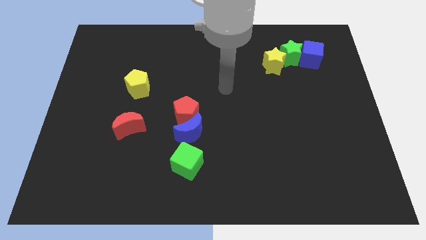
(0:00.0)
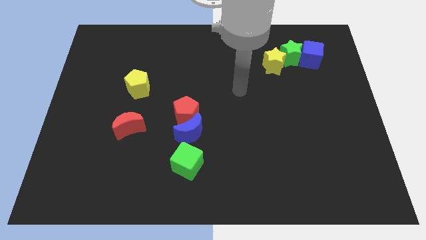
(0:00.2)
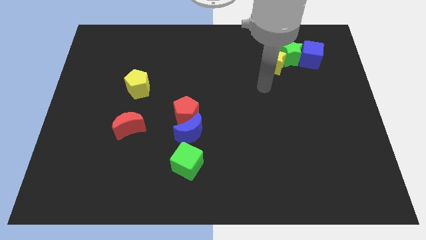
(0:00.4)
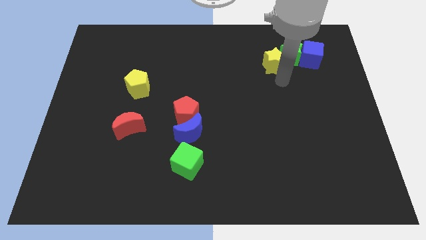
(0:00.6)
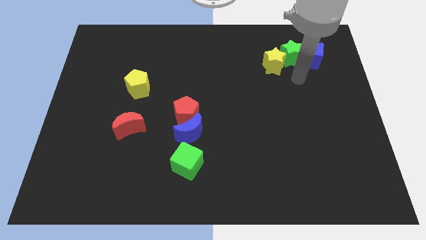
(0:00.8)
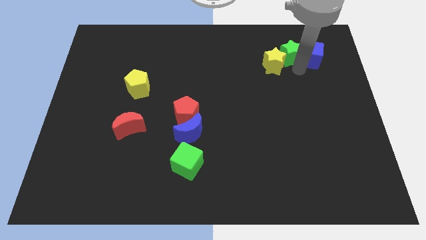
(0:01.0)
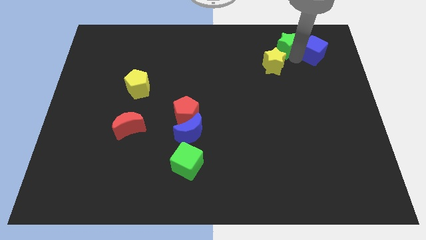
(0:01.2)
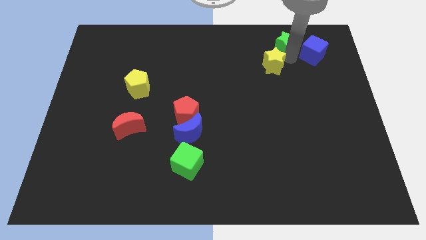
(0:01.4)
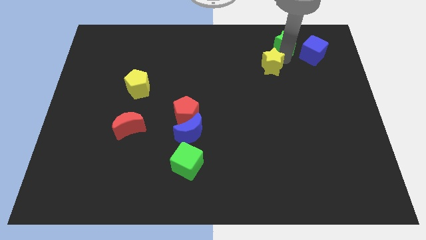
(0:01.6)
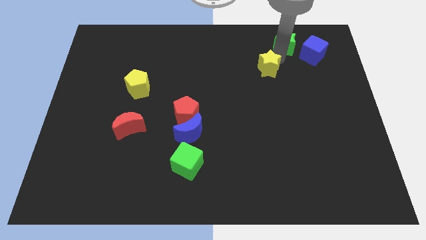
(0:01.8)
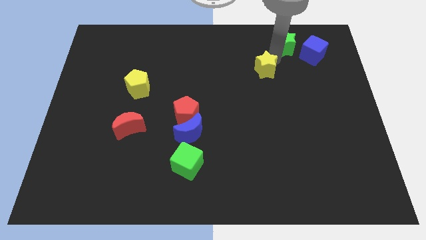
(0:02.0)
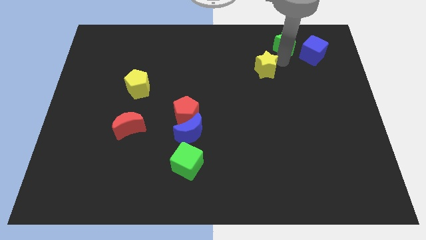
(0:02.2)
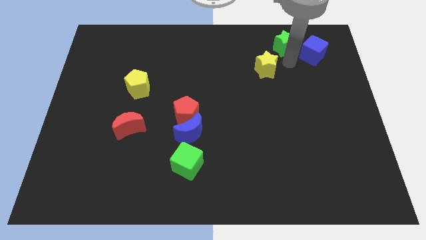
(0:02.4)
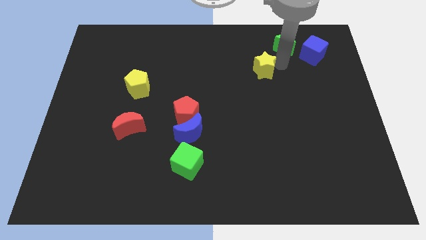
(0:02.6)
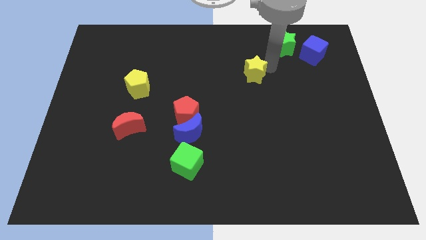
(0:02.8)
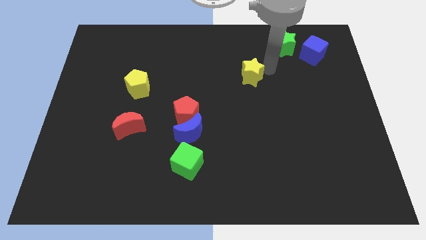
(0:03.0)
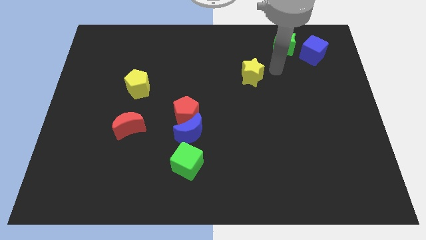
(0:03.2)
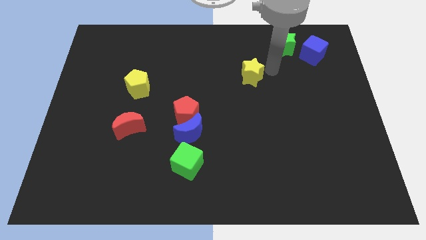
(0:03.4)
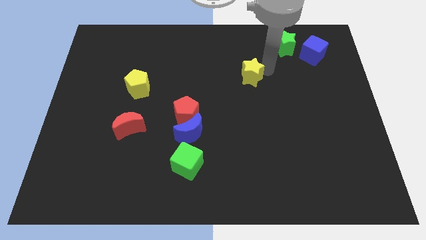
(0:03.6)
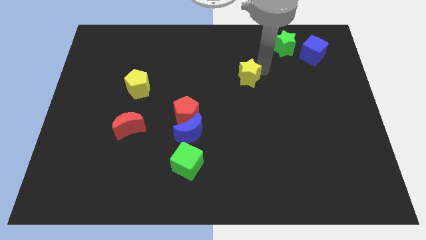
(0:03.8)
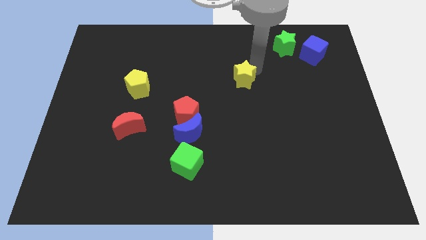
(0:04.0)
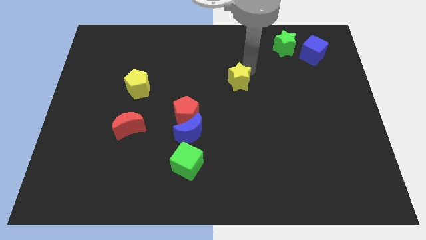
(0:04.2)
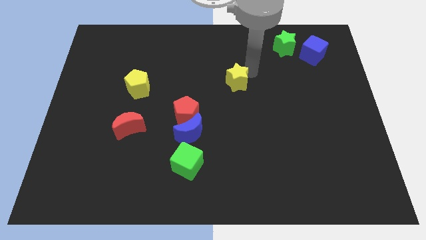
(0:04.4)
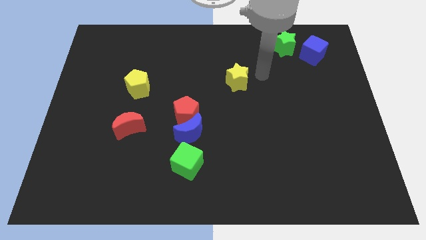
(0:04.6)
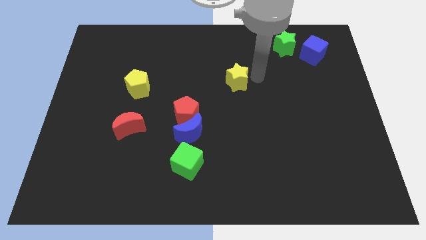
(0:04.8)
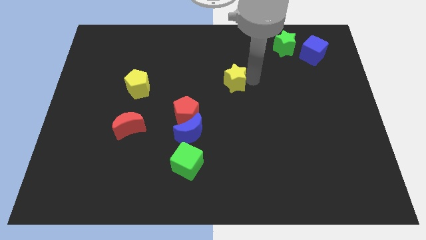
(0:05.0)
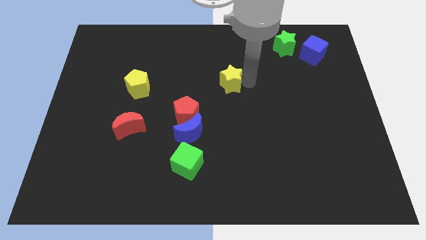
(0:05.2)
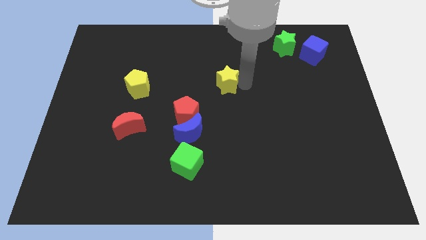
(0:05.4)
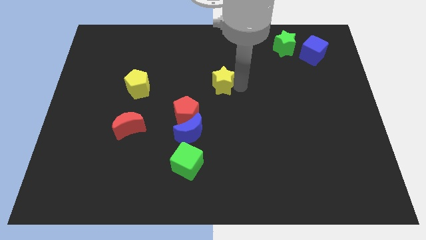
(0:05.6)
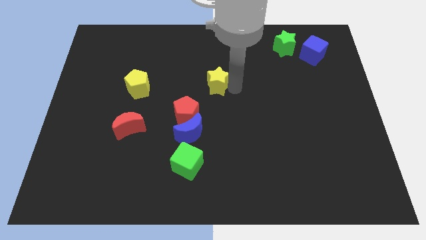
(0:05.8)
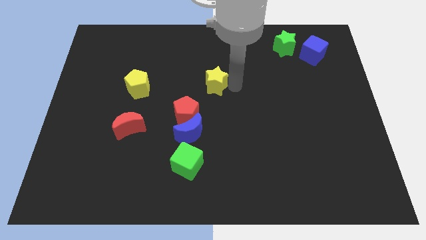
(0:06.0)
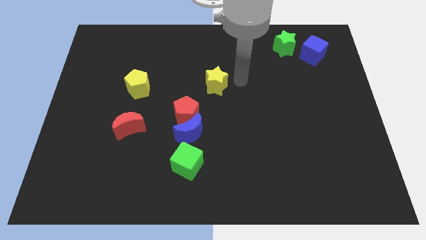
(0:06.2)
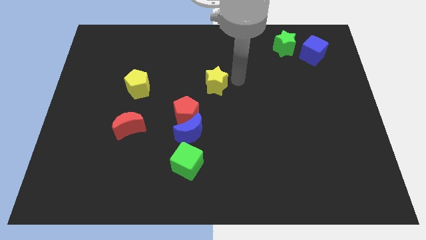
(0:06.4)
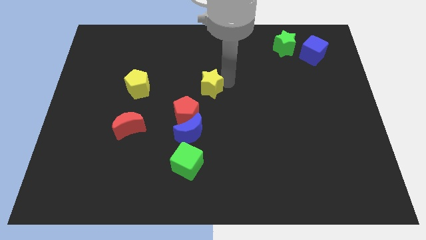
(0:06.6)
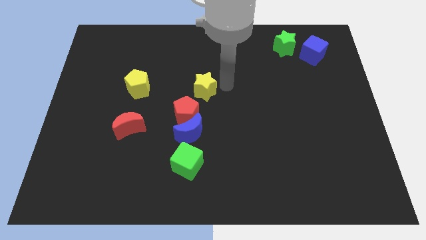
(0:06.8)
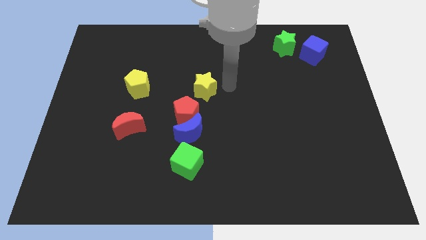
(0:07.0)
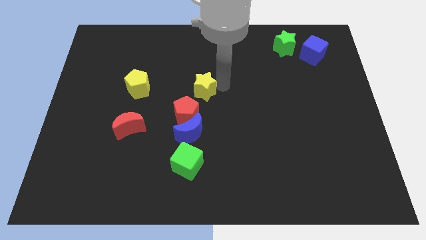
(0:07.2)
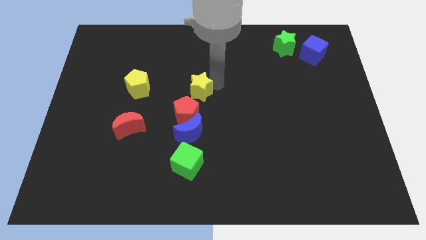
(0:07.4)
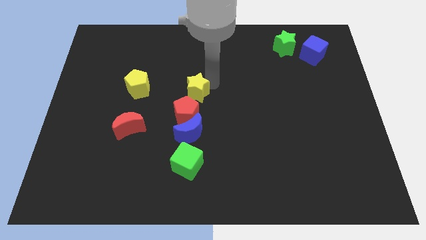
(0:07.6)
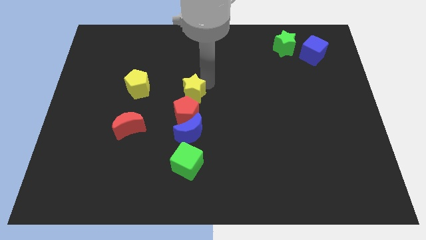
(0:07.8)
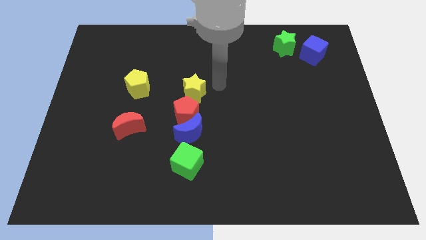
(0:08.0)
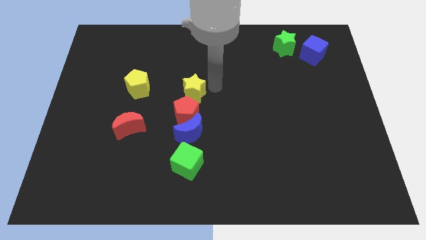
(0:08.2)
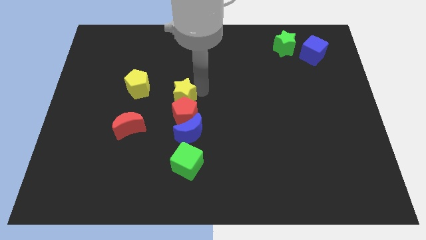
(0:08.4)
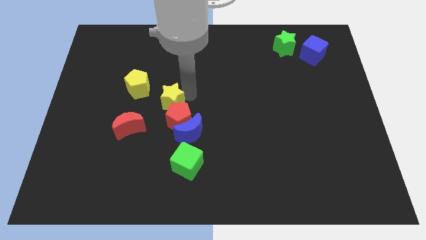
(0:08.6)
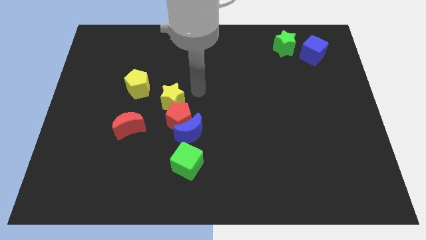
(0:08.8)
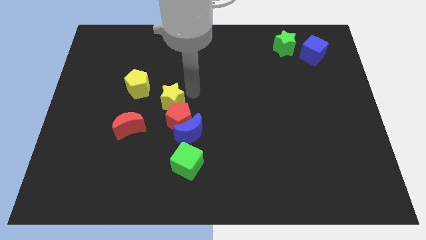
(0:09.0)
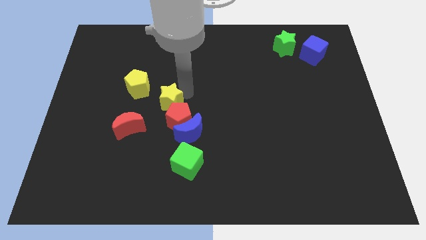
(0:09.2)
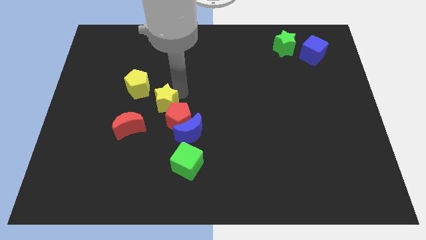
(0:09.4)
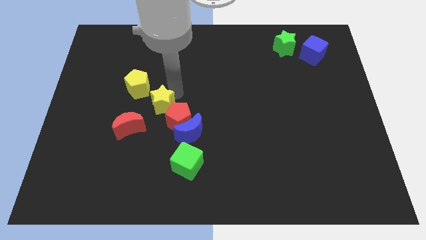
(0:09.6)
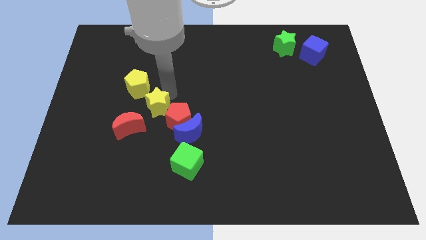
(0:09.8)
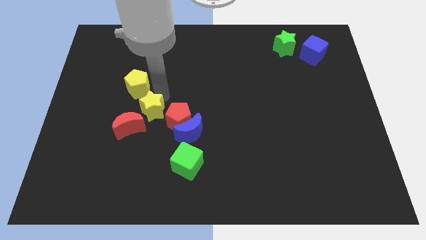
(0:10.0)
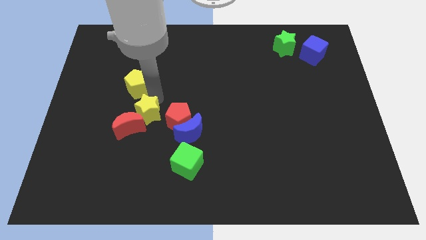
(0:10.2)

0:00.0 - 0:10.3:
put the yellow star towards the red moon

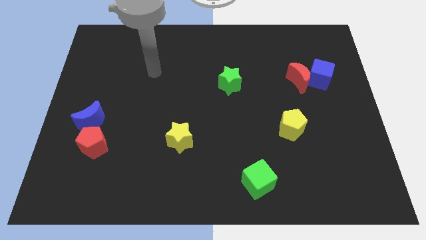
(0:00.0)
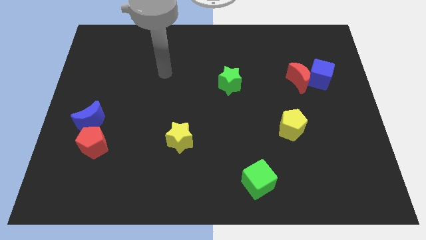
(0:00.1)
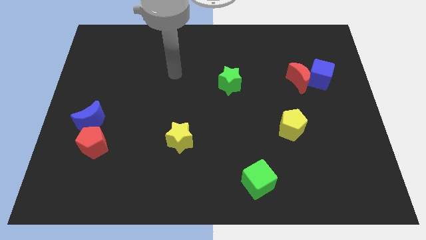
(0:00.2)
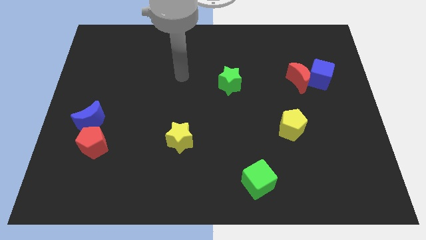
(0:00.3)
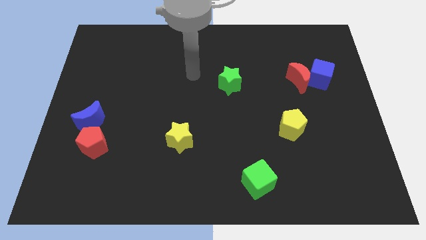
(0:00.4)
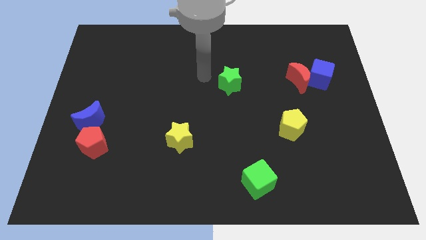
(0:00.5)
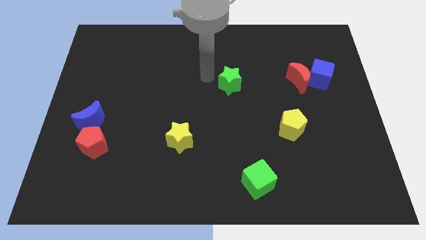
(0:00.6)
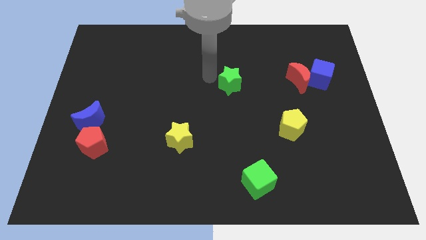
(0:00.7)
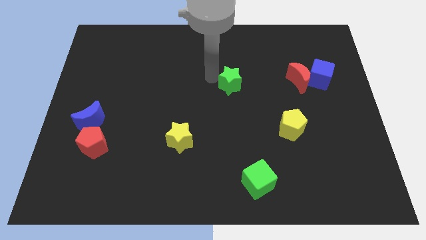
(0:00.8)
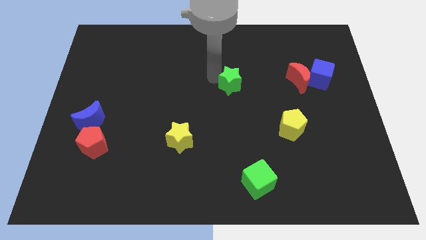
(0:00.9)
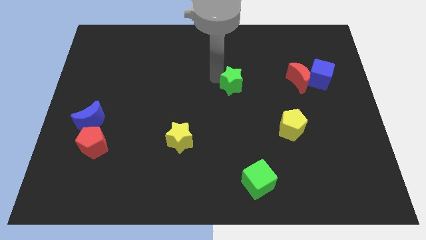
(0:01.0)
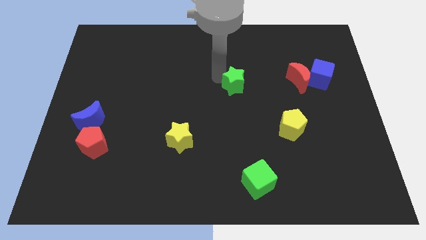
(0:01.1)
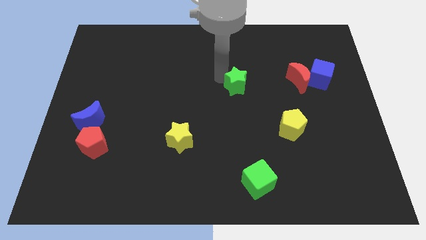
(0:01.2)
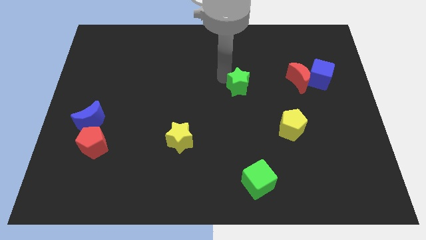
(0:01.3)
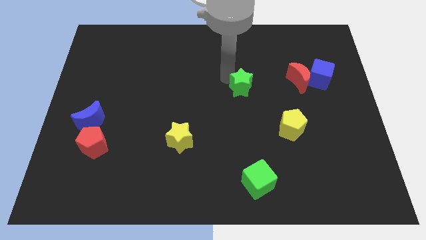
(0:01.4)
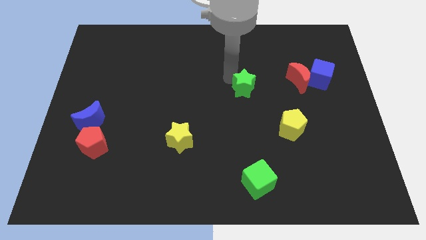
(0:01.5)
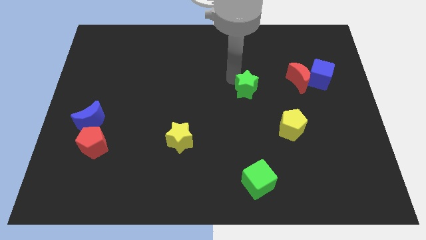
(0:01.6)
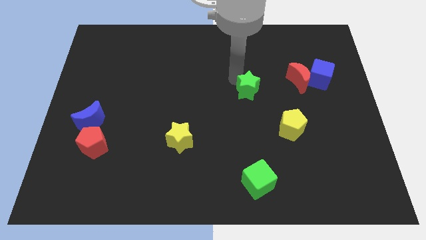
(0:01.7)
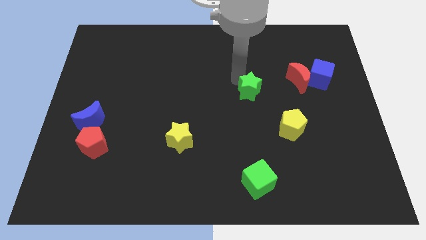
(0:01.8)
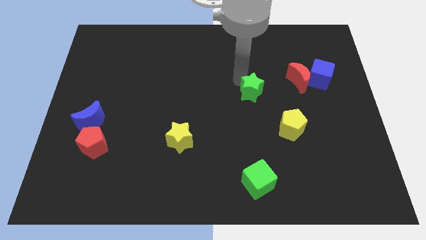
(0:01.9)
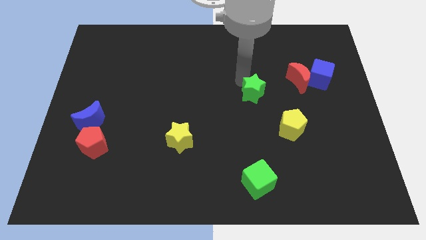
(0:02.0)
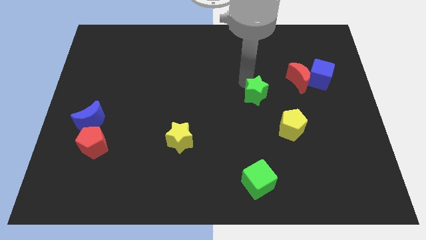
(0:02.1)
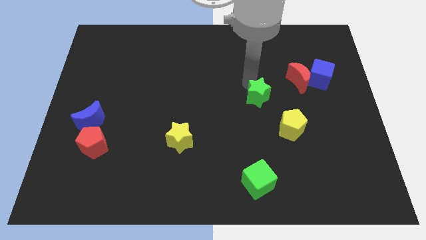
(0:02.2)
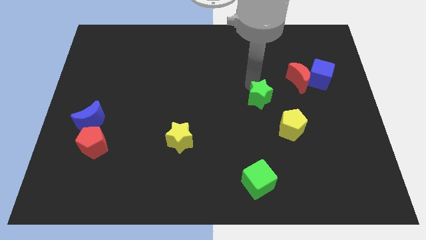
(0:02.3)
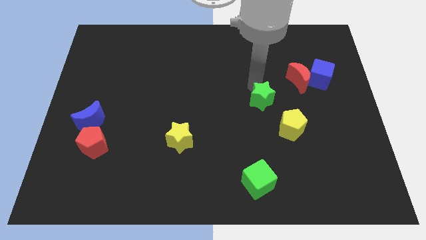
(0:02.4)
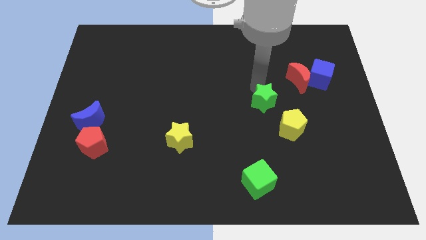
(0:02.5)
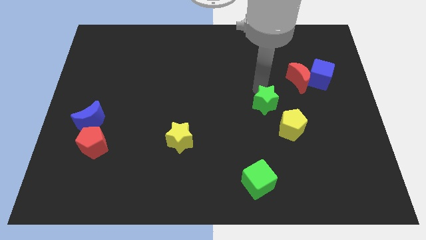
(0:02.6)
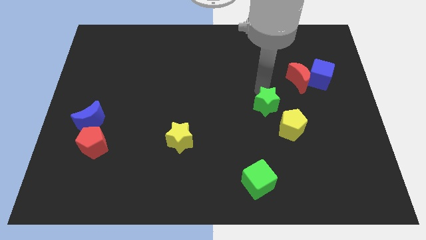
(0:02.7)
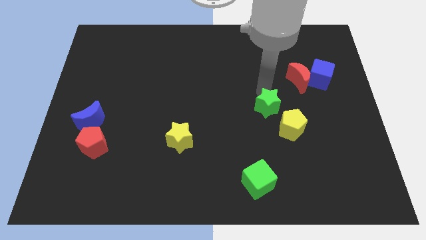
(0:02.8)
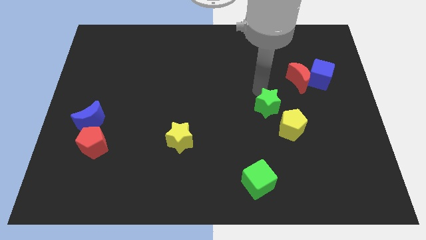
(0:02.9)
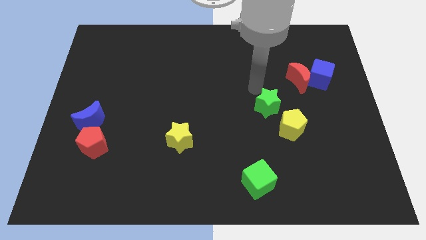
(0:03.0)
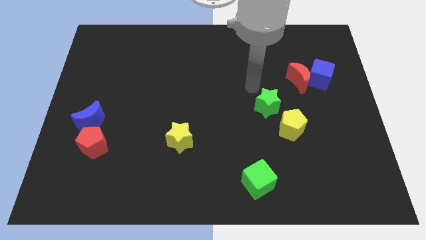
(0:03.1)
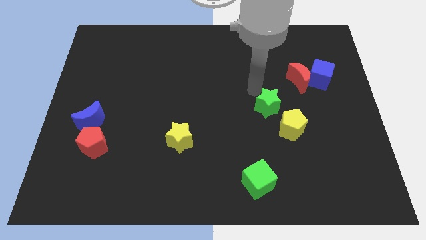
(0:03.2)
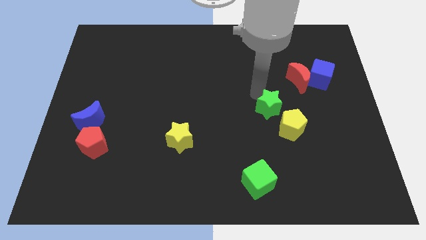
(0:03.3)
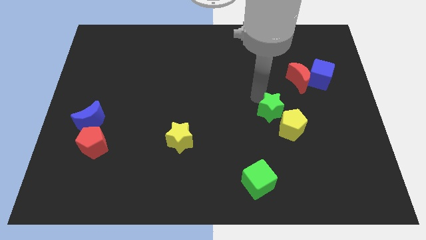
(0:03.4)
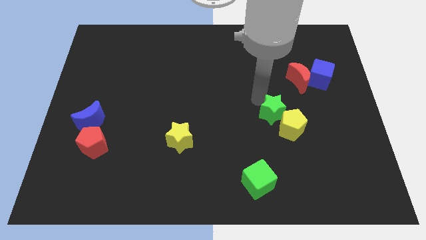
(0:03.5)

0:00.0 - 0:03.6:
push the green star close to the yellow pentagon
